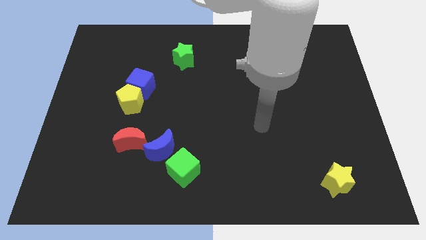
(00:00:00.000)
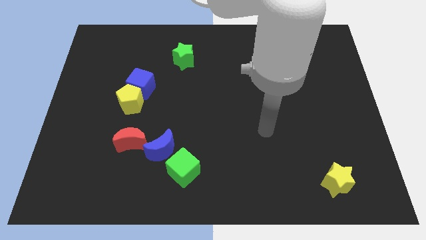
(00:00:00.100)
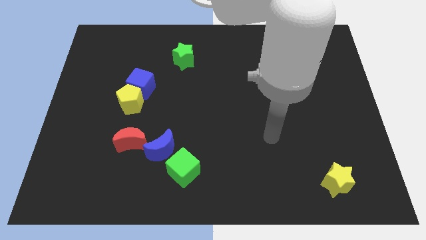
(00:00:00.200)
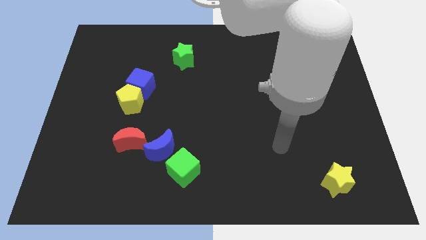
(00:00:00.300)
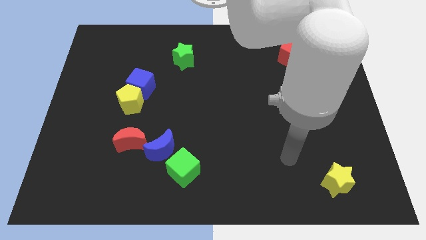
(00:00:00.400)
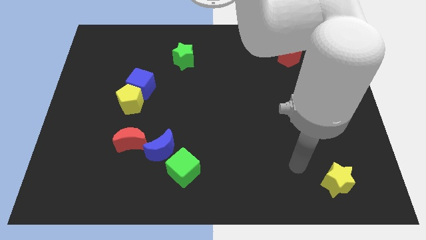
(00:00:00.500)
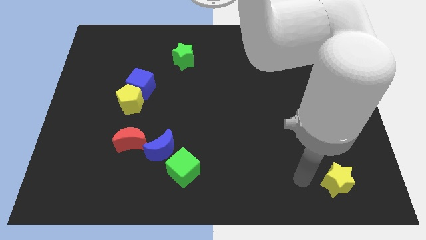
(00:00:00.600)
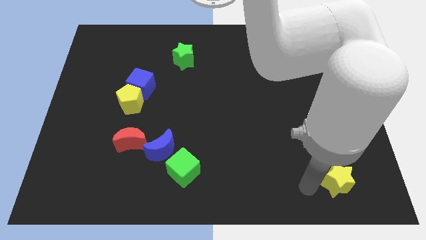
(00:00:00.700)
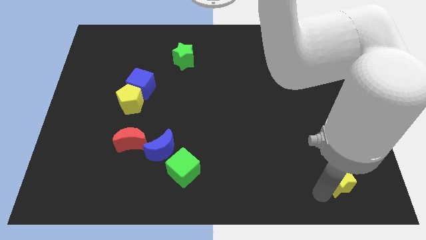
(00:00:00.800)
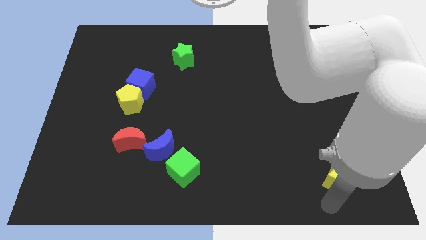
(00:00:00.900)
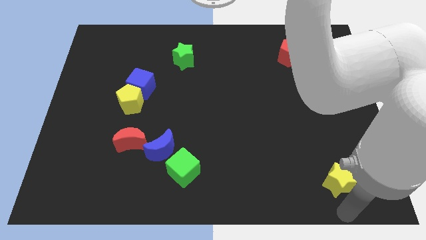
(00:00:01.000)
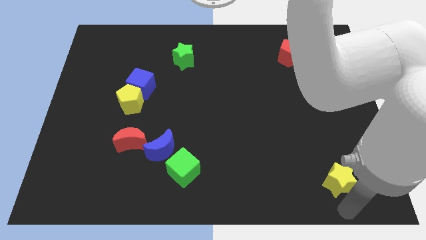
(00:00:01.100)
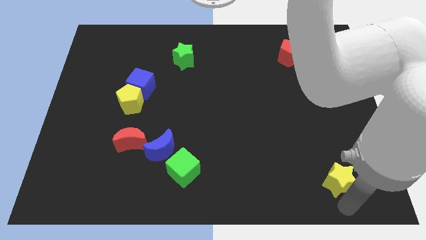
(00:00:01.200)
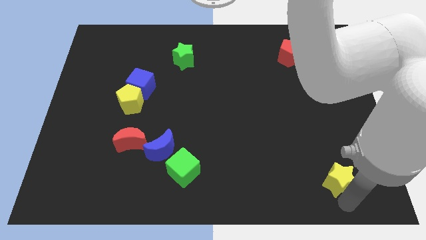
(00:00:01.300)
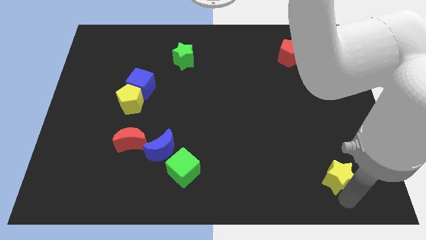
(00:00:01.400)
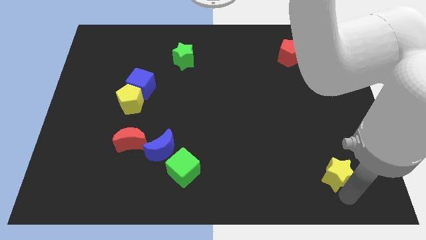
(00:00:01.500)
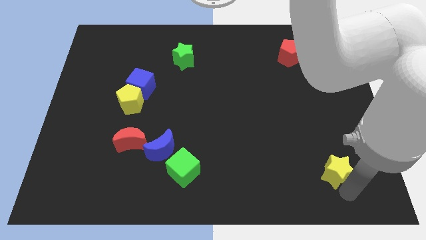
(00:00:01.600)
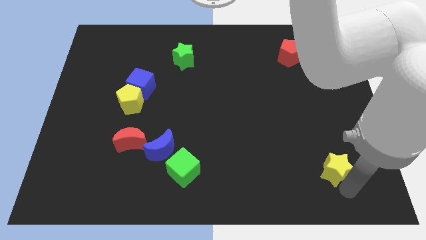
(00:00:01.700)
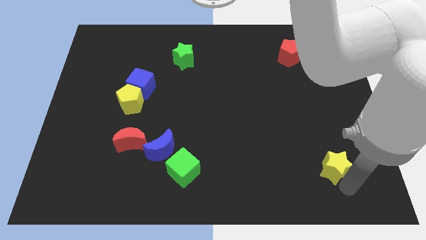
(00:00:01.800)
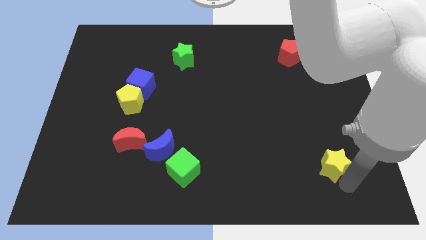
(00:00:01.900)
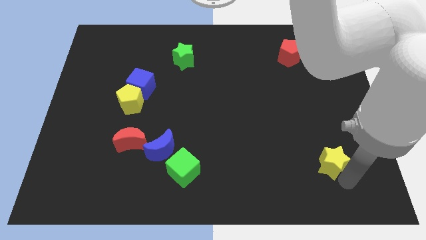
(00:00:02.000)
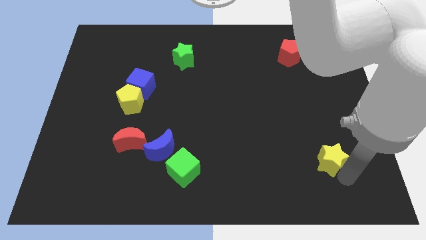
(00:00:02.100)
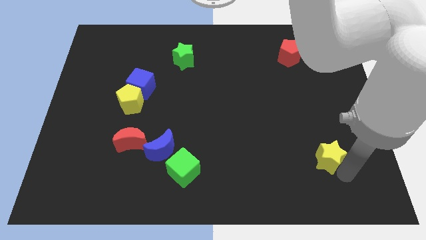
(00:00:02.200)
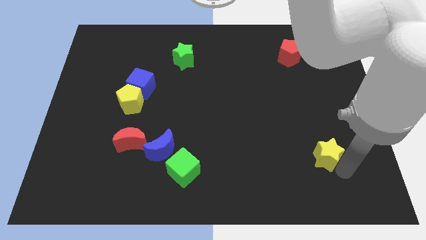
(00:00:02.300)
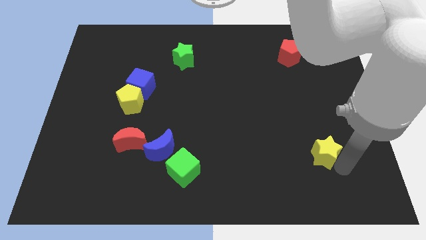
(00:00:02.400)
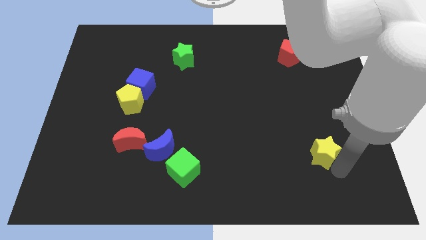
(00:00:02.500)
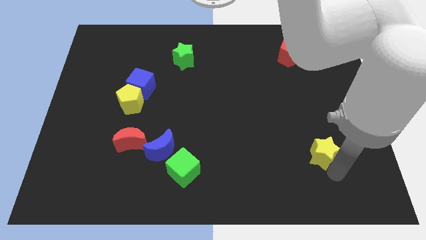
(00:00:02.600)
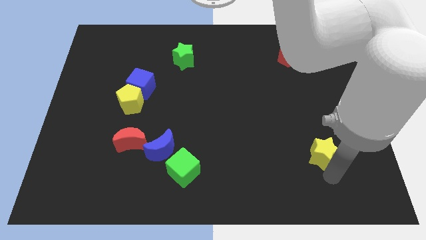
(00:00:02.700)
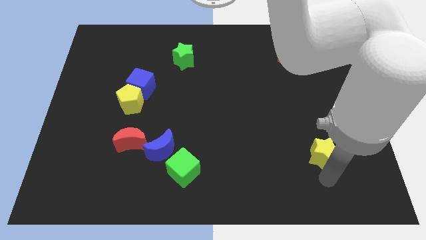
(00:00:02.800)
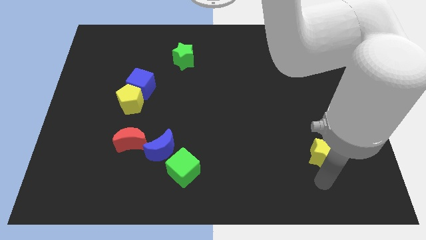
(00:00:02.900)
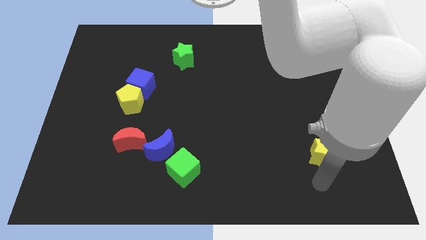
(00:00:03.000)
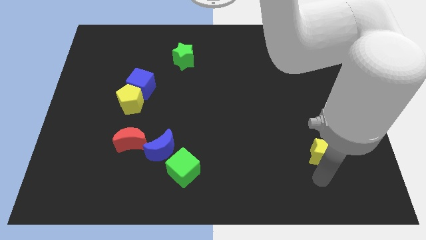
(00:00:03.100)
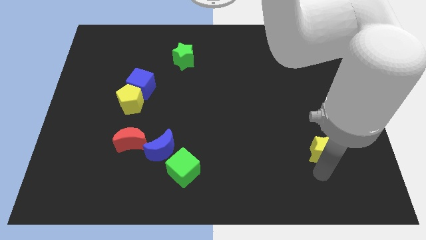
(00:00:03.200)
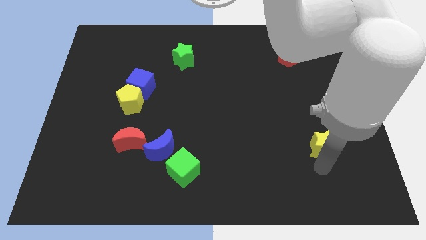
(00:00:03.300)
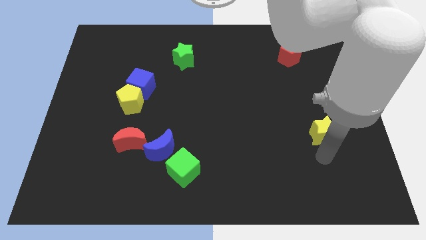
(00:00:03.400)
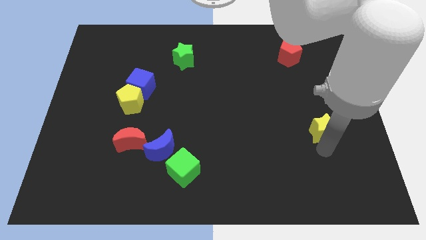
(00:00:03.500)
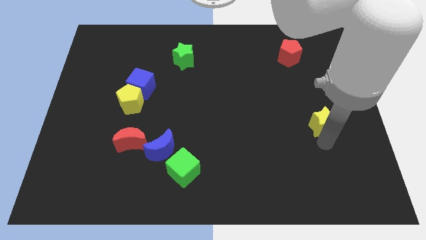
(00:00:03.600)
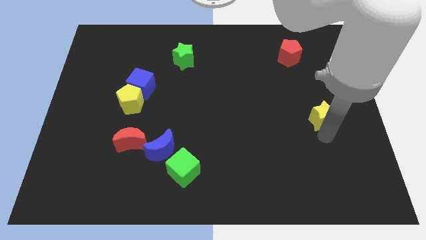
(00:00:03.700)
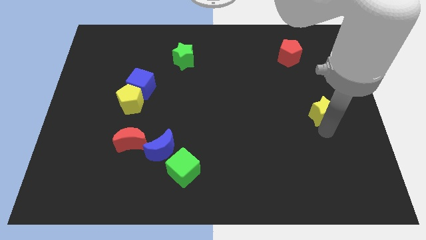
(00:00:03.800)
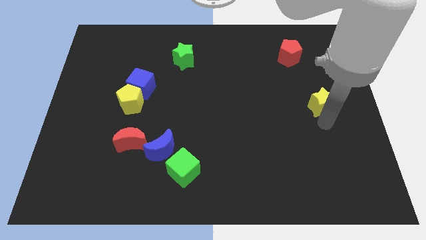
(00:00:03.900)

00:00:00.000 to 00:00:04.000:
slide the yellow star upwards

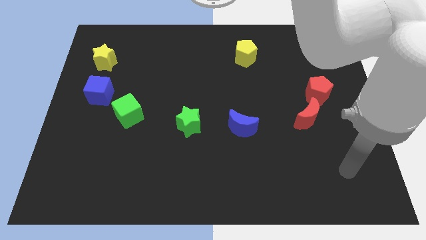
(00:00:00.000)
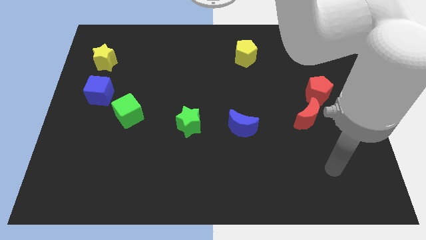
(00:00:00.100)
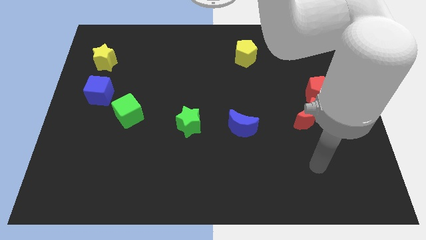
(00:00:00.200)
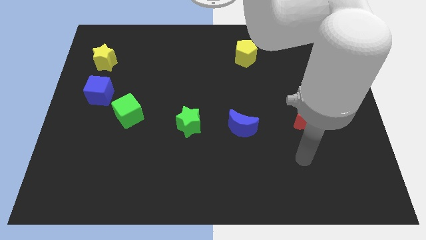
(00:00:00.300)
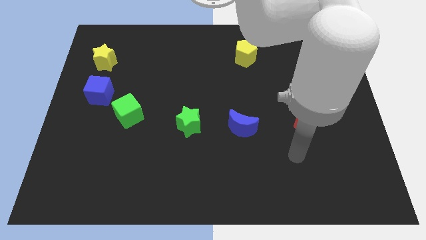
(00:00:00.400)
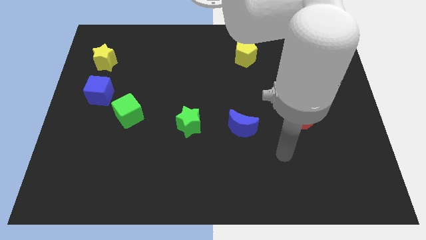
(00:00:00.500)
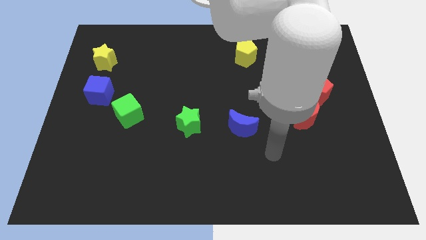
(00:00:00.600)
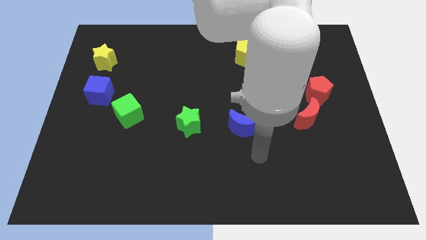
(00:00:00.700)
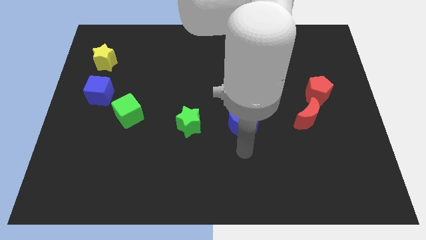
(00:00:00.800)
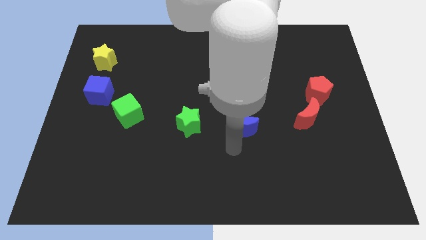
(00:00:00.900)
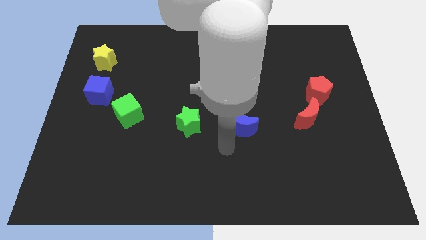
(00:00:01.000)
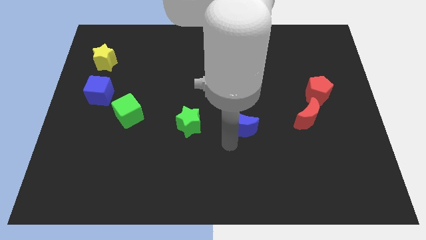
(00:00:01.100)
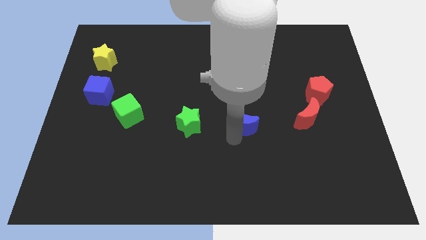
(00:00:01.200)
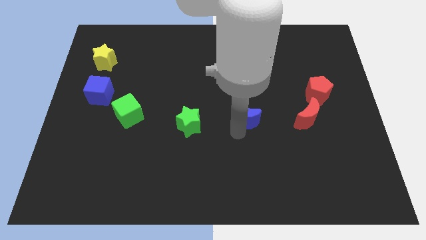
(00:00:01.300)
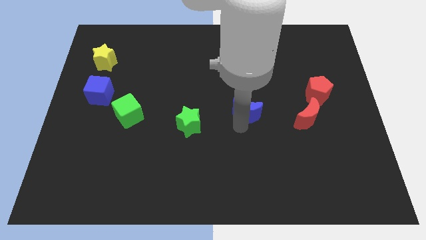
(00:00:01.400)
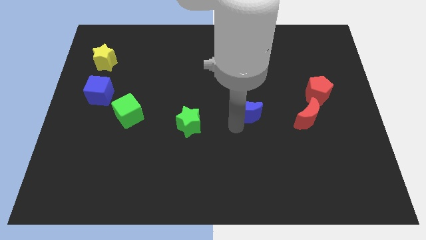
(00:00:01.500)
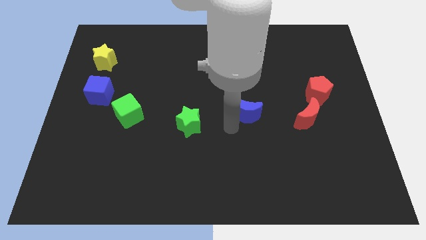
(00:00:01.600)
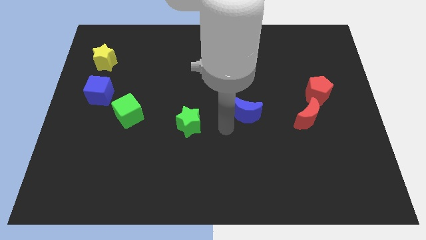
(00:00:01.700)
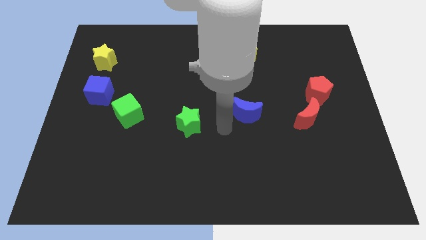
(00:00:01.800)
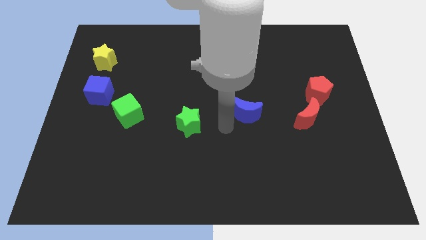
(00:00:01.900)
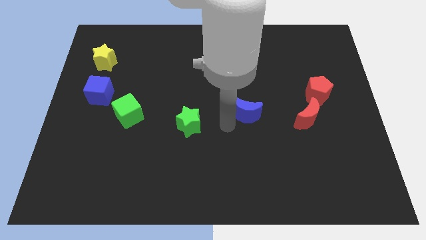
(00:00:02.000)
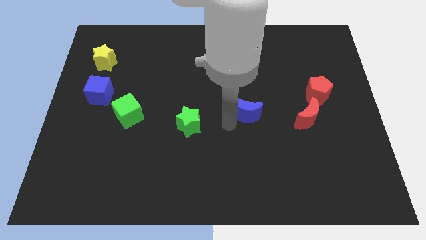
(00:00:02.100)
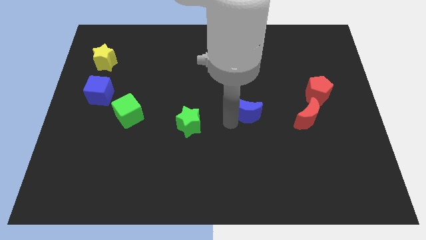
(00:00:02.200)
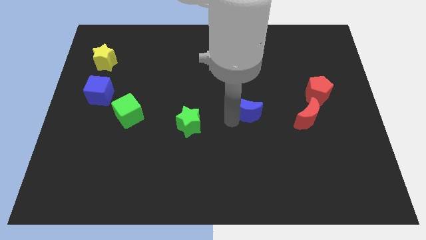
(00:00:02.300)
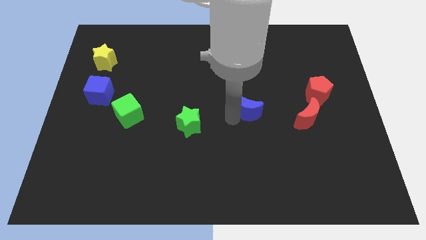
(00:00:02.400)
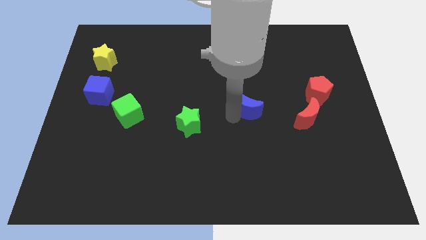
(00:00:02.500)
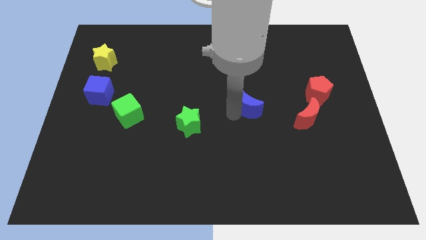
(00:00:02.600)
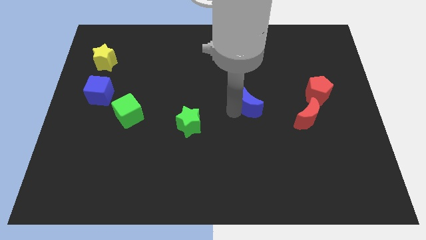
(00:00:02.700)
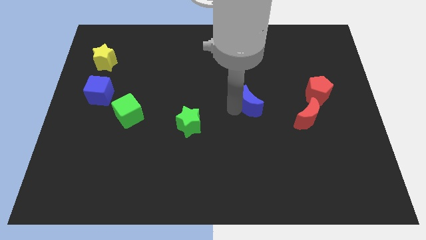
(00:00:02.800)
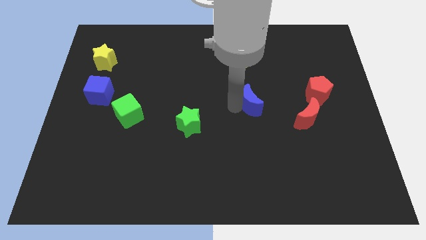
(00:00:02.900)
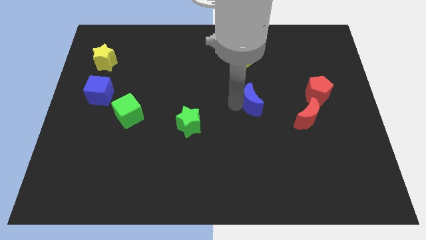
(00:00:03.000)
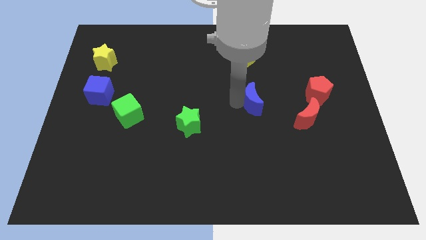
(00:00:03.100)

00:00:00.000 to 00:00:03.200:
move the blue moon somewhat up and then right

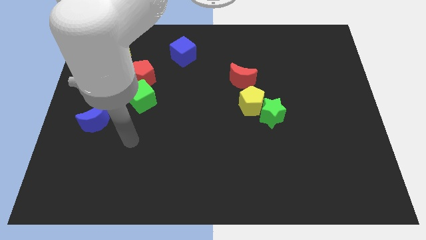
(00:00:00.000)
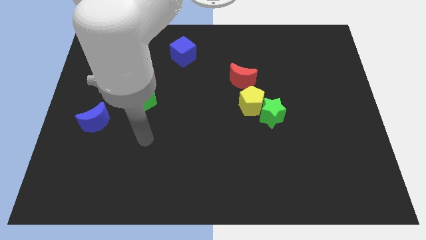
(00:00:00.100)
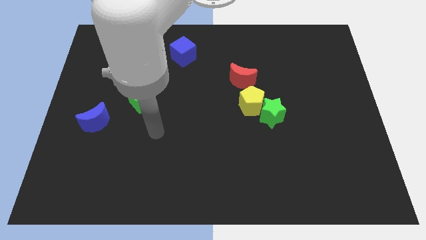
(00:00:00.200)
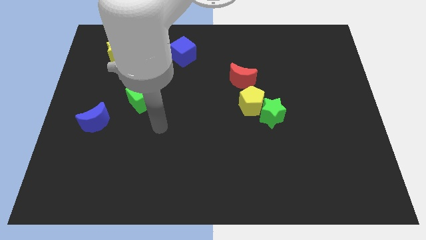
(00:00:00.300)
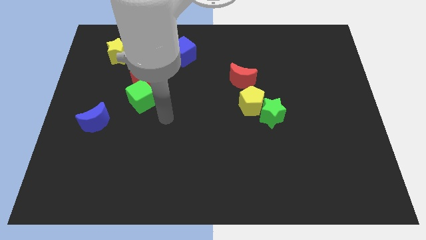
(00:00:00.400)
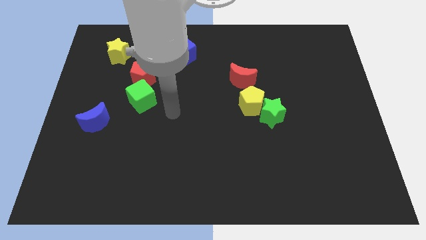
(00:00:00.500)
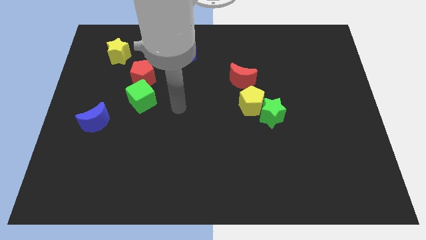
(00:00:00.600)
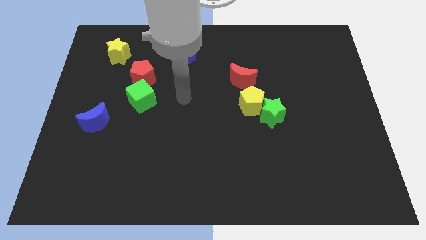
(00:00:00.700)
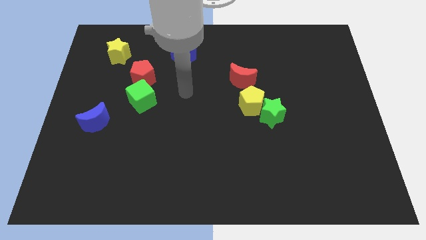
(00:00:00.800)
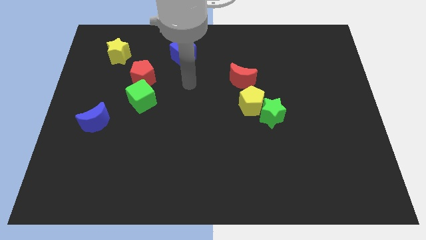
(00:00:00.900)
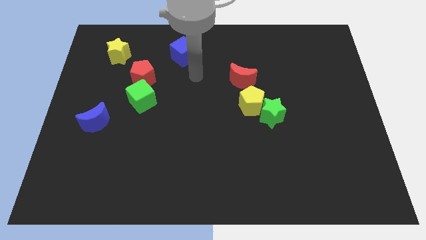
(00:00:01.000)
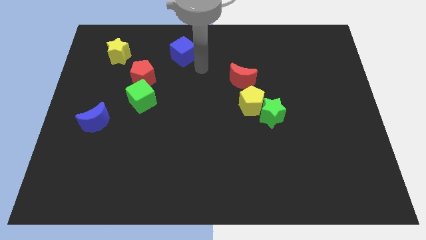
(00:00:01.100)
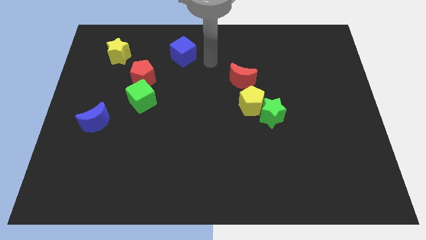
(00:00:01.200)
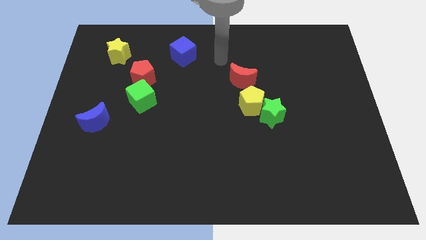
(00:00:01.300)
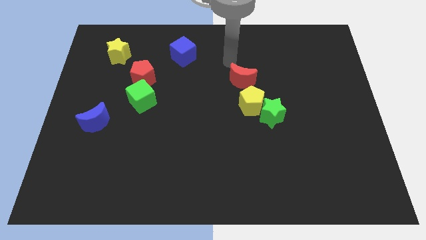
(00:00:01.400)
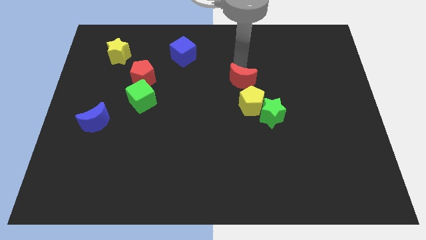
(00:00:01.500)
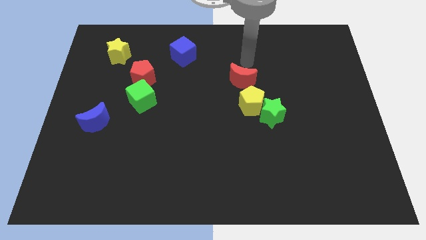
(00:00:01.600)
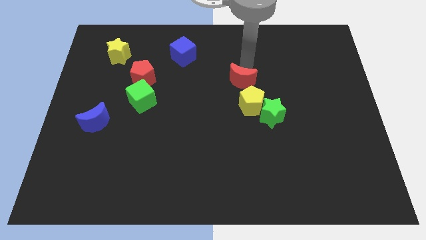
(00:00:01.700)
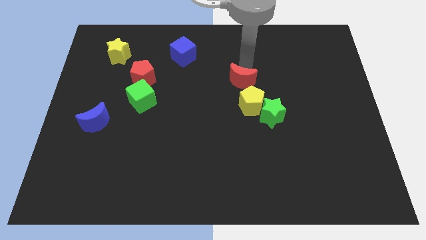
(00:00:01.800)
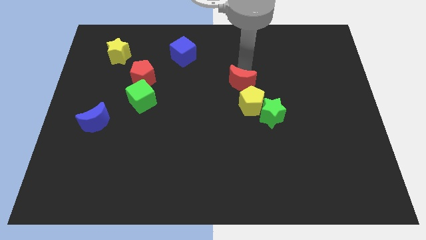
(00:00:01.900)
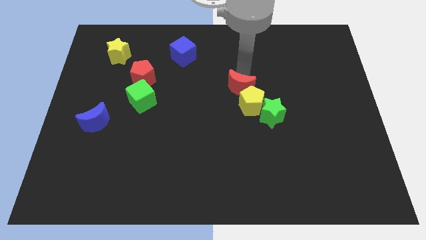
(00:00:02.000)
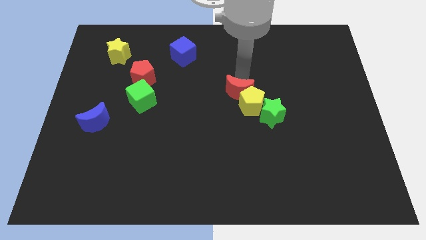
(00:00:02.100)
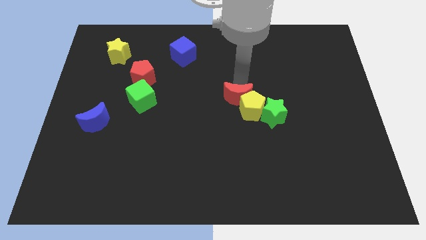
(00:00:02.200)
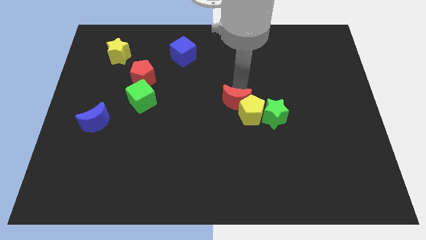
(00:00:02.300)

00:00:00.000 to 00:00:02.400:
slide the red moon a little bit downwards
